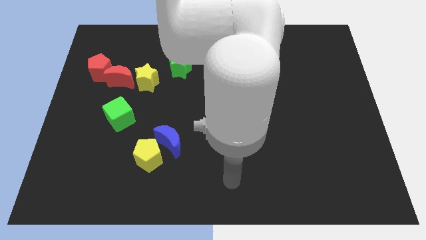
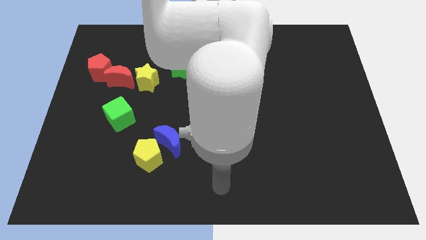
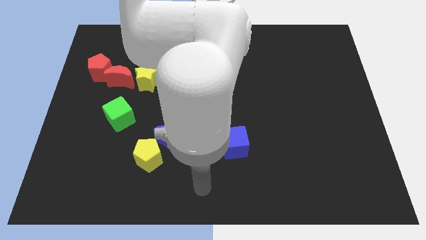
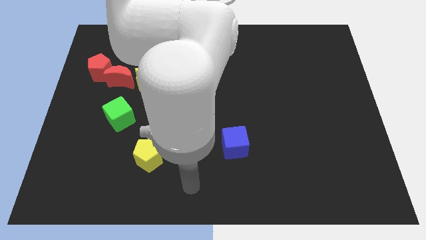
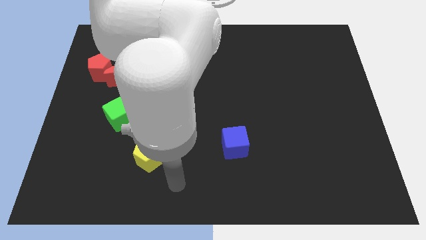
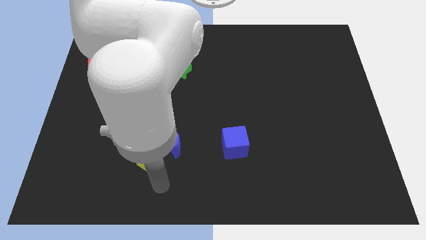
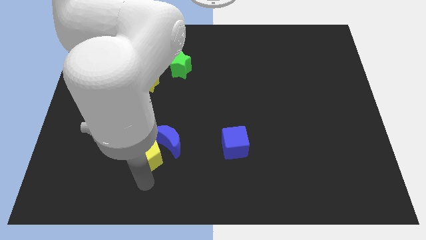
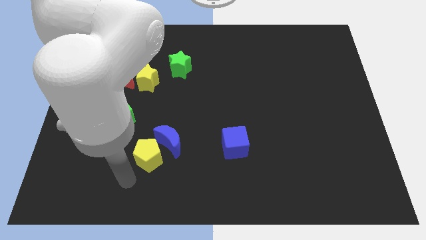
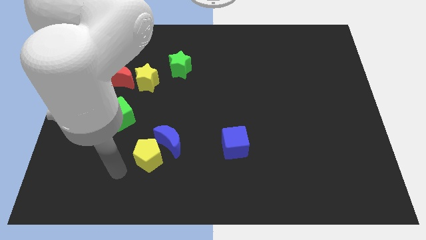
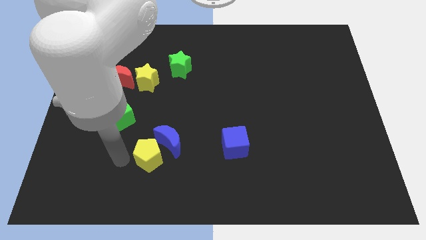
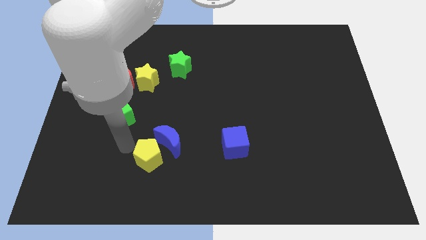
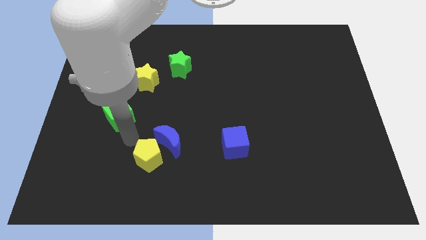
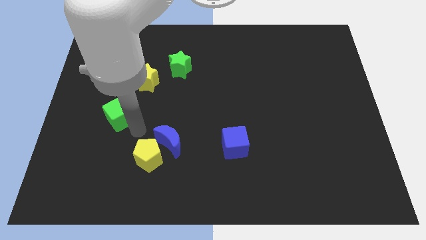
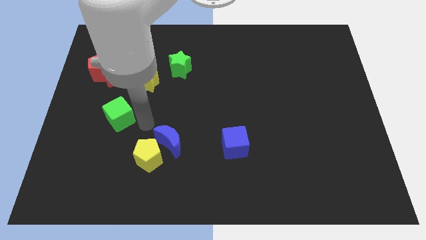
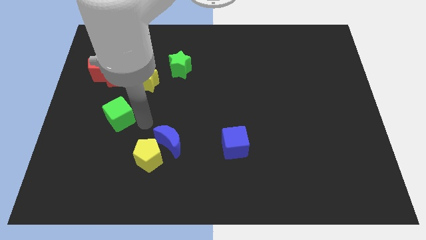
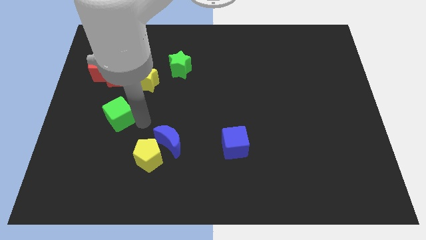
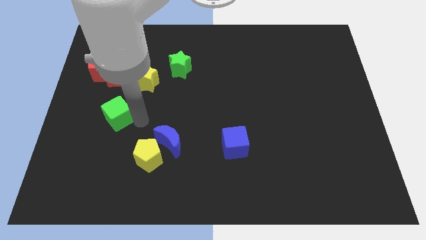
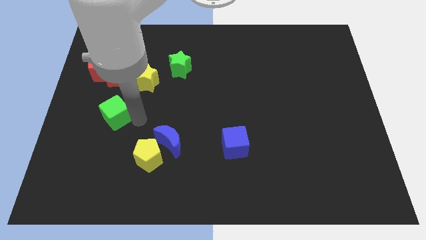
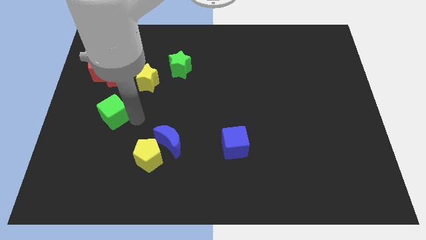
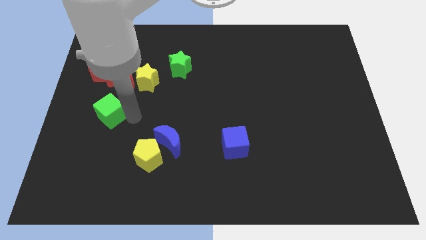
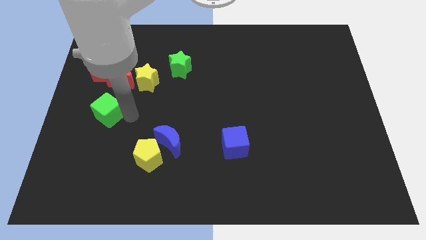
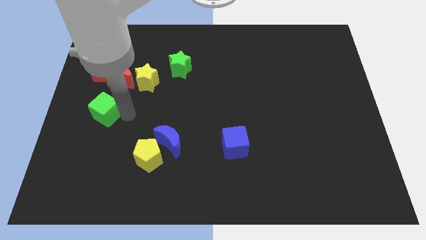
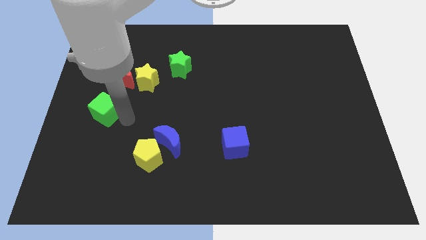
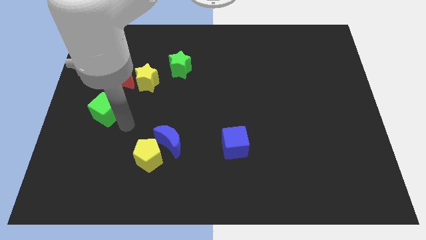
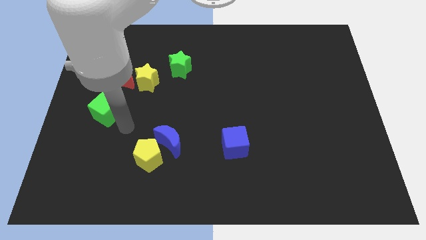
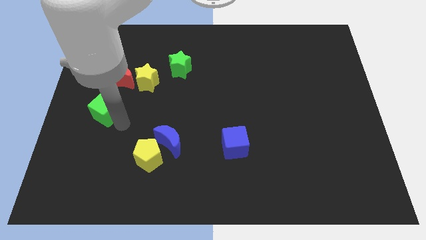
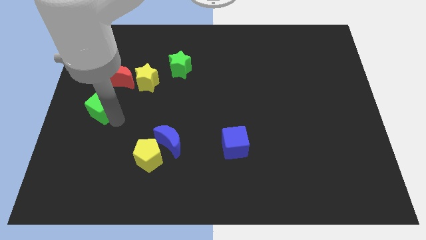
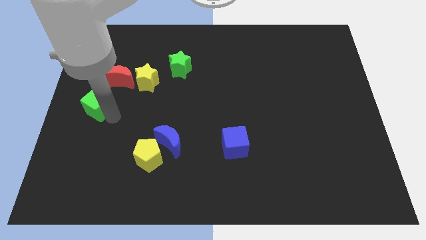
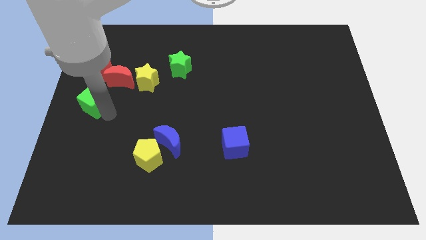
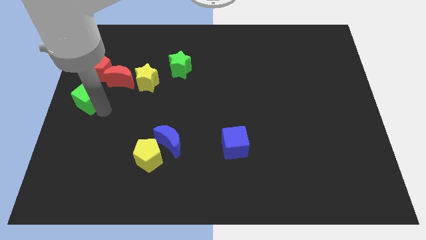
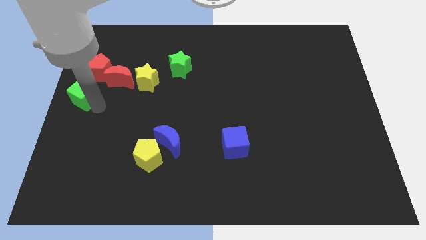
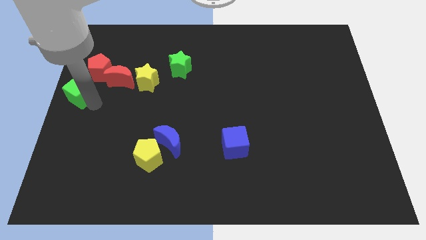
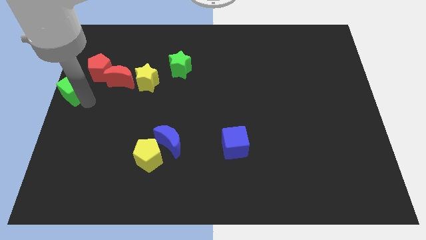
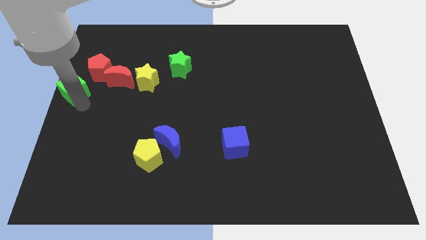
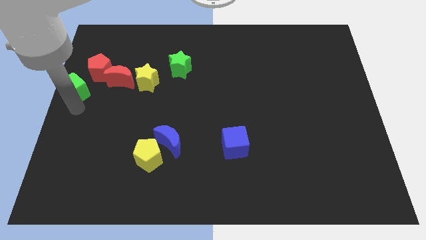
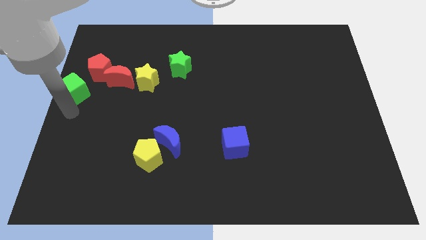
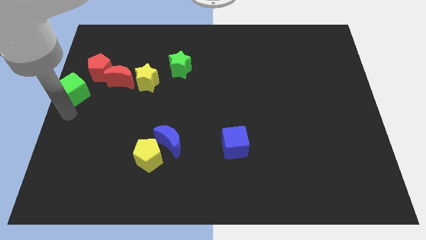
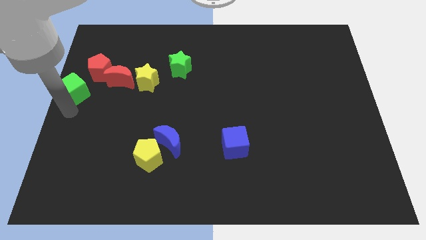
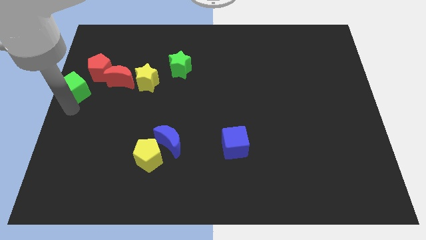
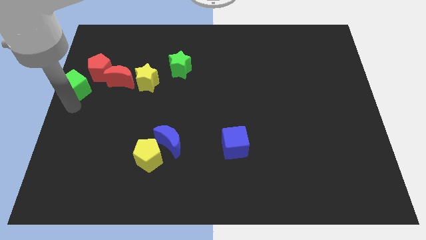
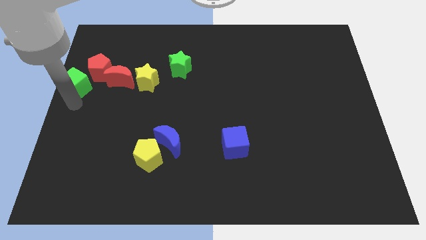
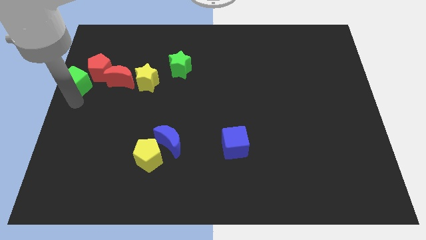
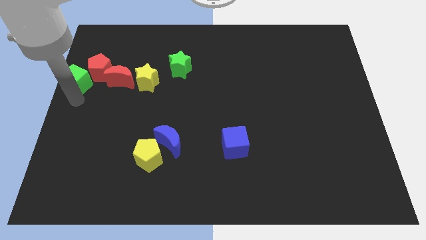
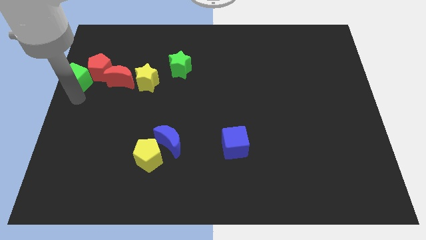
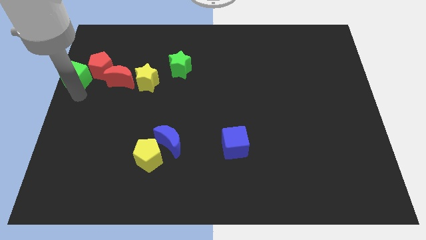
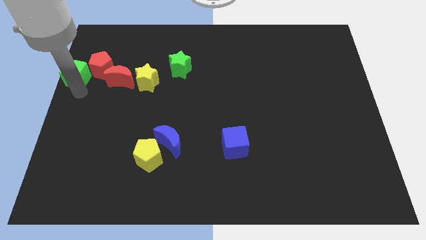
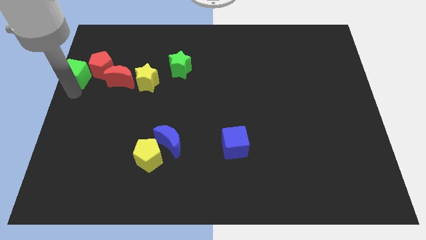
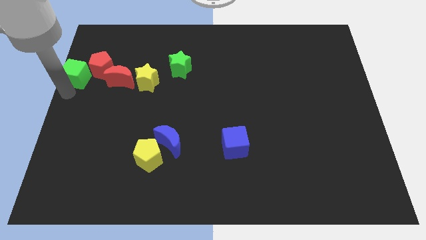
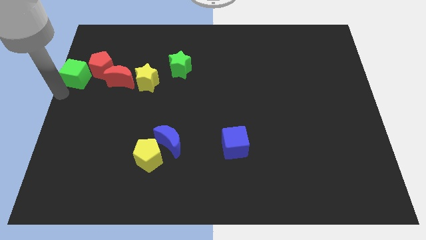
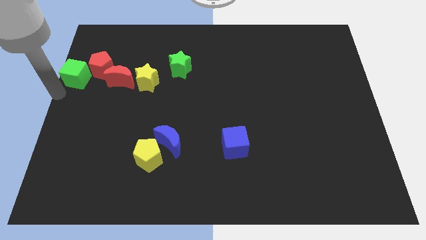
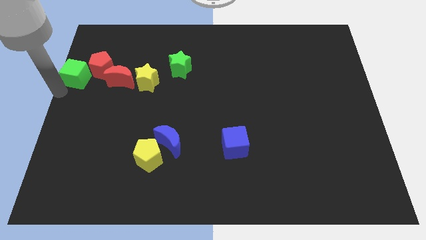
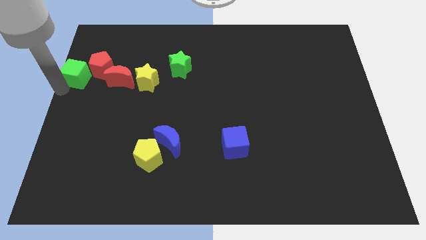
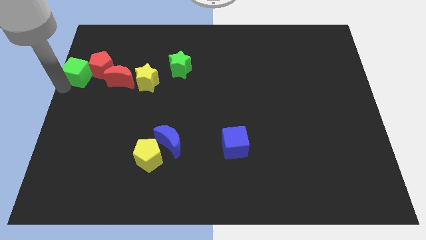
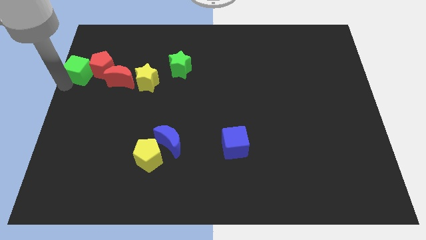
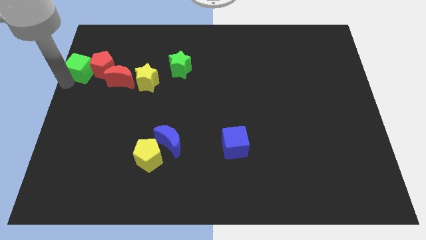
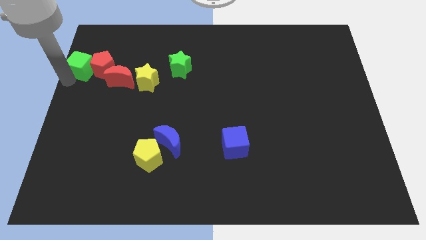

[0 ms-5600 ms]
slide the green cube a little upwards

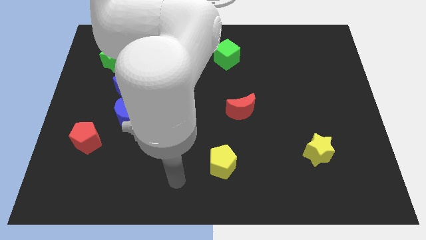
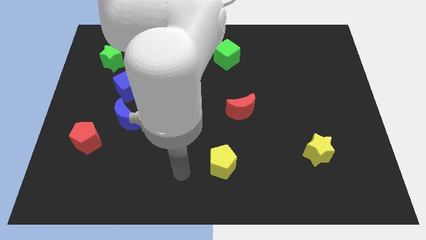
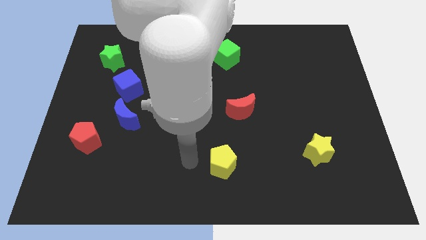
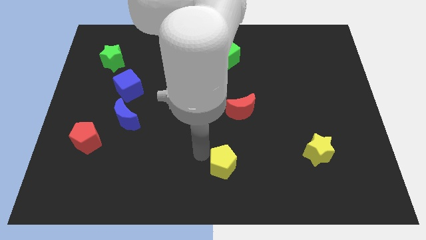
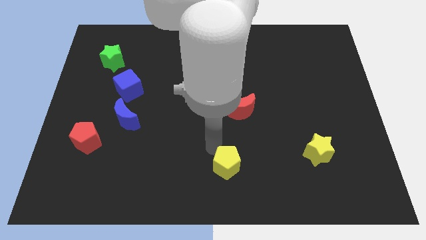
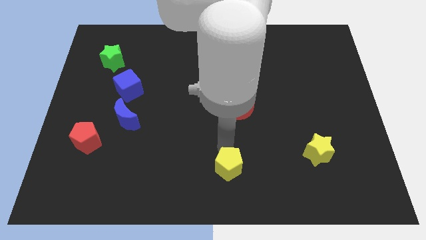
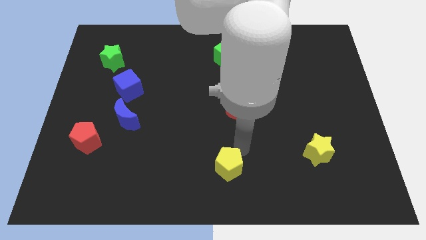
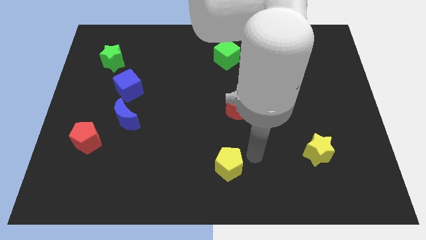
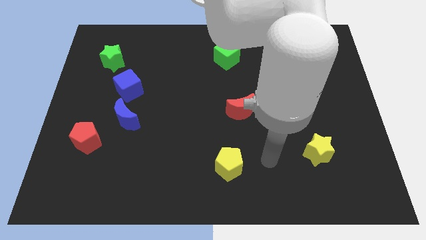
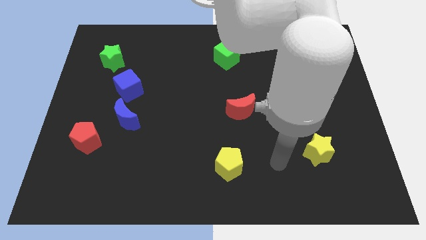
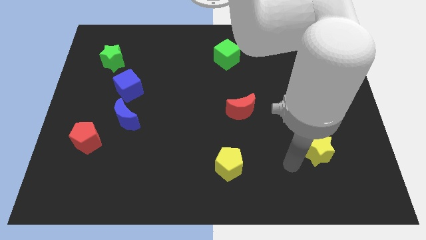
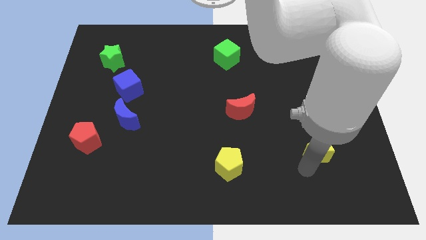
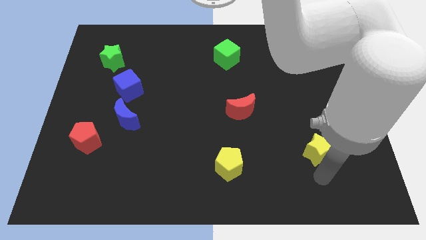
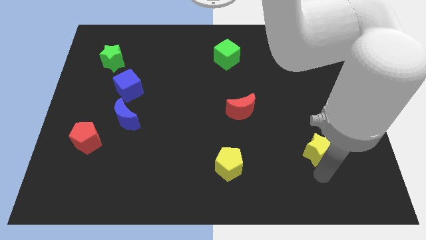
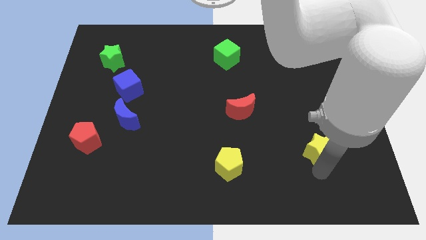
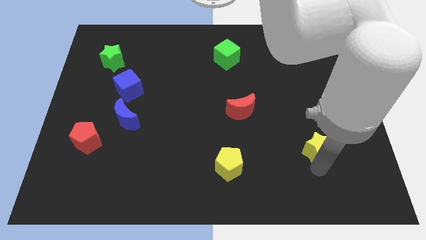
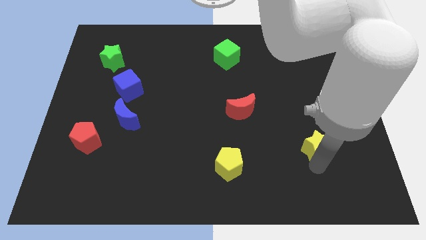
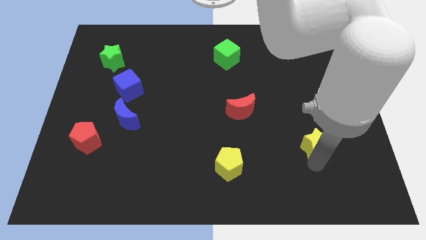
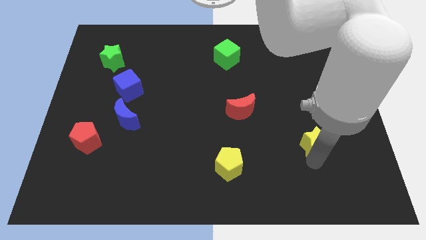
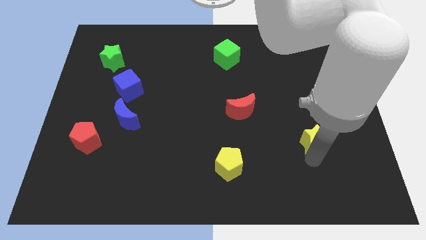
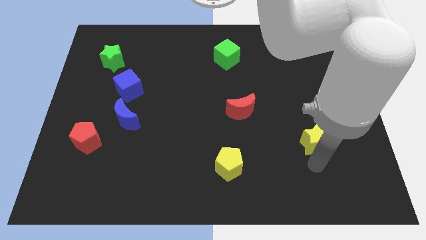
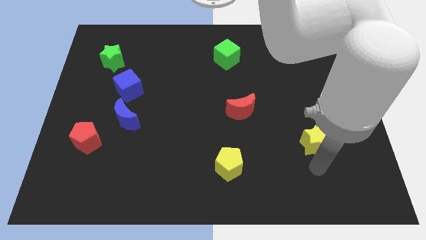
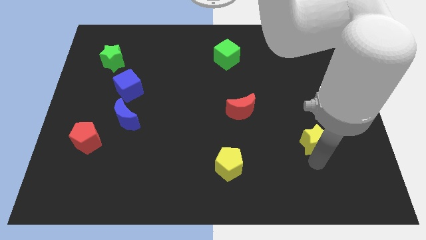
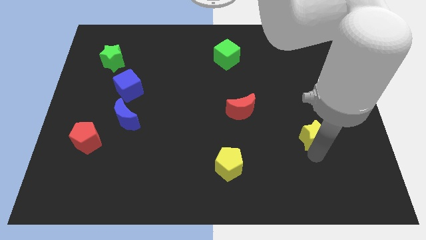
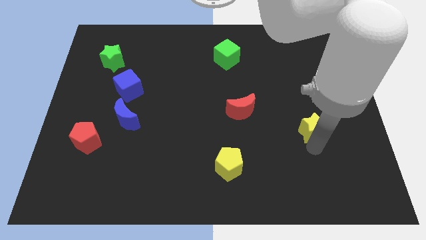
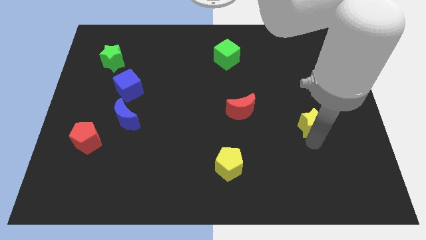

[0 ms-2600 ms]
move the yellow star upwards slightly
